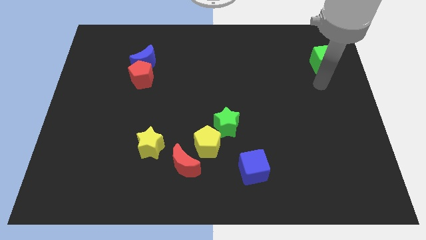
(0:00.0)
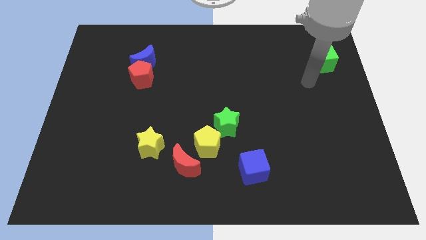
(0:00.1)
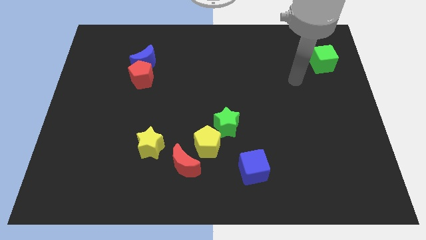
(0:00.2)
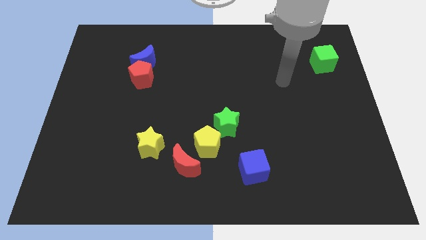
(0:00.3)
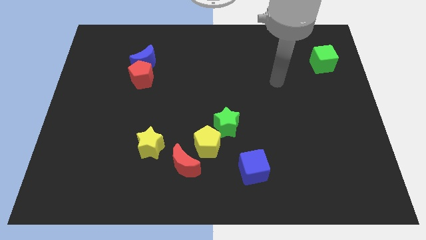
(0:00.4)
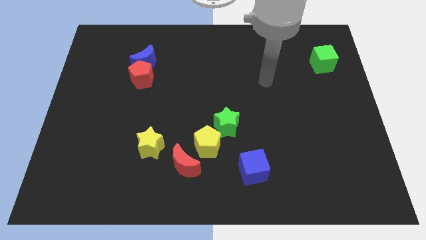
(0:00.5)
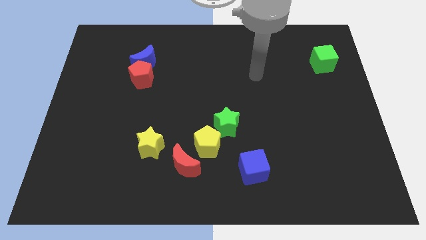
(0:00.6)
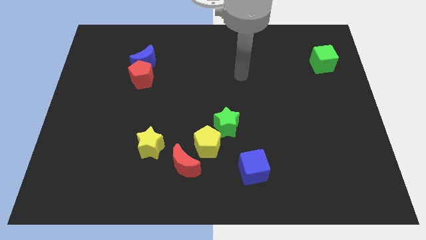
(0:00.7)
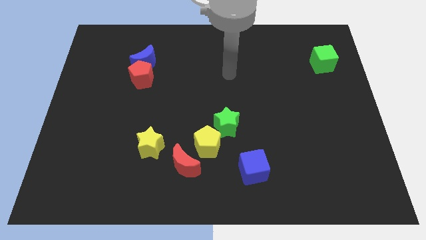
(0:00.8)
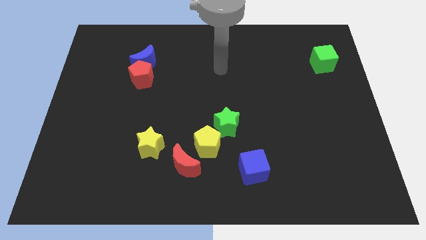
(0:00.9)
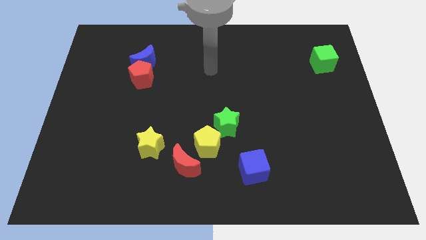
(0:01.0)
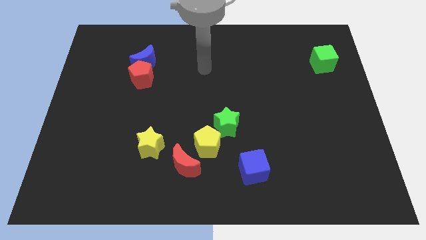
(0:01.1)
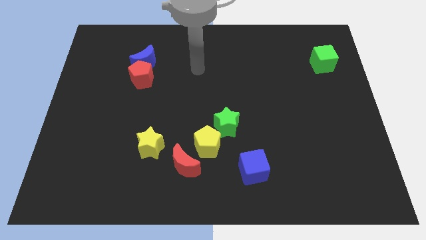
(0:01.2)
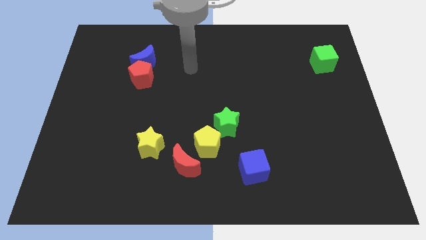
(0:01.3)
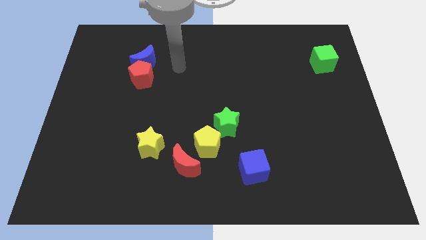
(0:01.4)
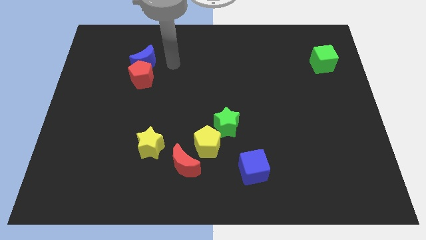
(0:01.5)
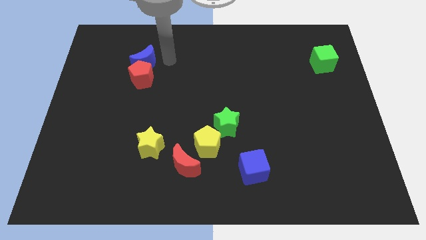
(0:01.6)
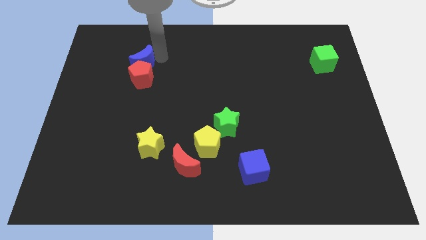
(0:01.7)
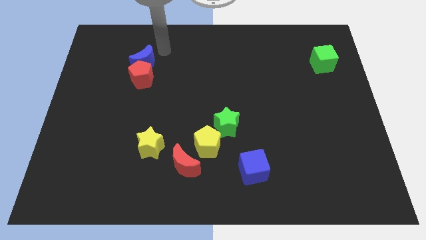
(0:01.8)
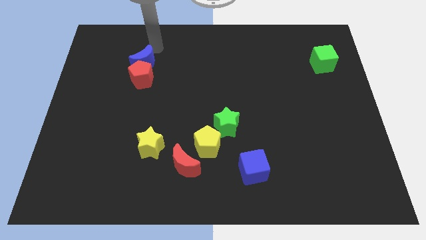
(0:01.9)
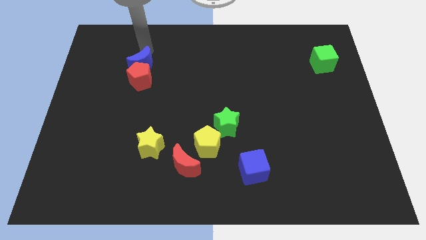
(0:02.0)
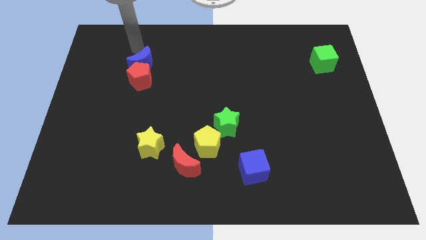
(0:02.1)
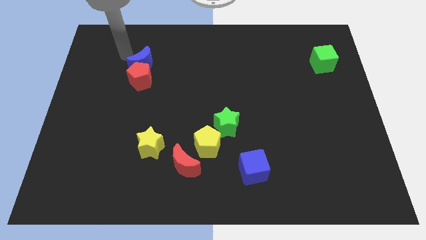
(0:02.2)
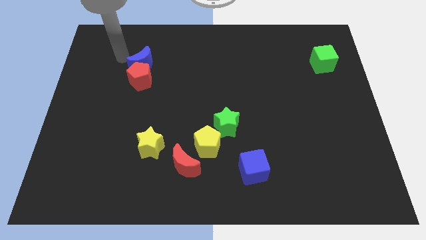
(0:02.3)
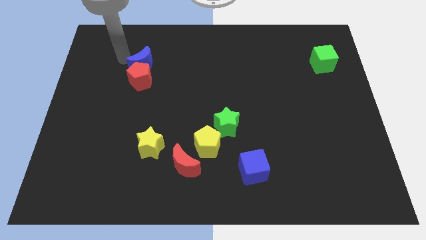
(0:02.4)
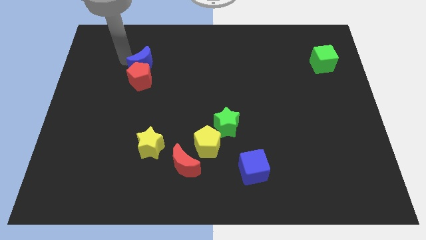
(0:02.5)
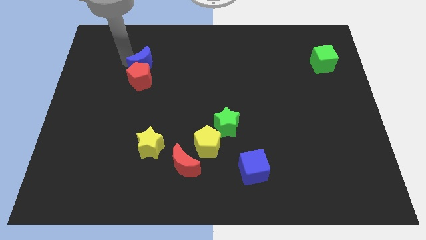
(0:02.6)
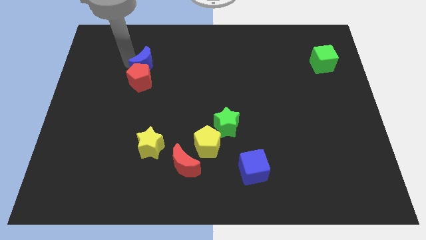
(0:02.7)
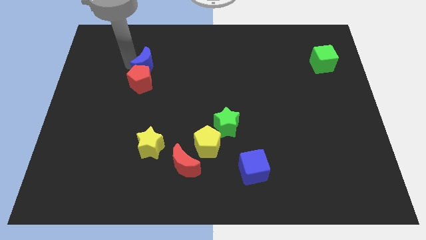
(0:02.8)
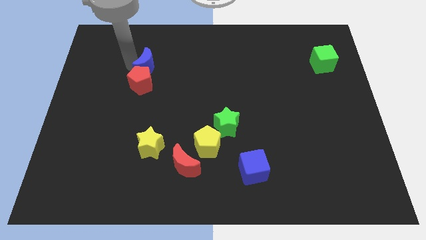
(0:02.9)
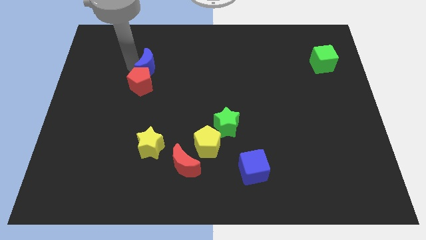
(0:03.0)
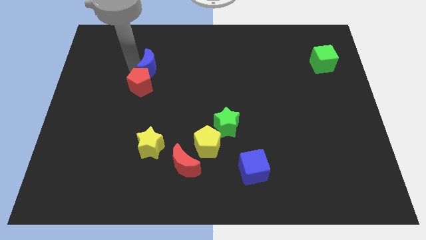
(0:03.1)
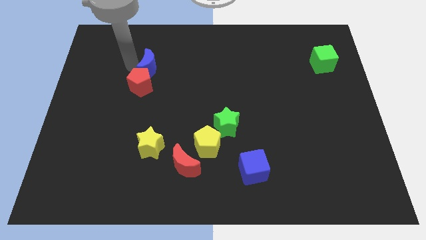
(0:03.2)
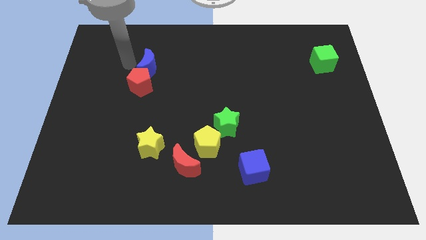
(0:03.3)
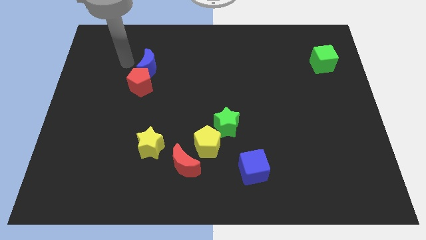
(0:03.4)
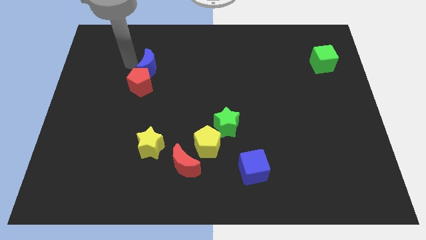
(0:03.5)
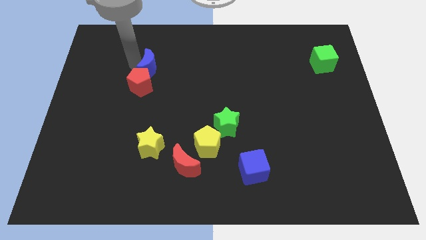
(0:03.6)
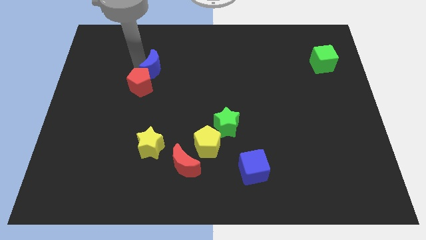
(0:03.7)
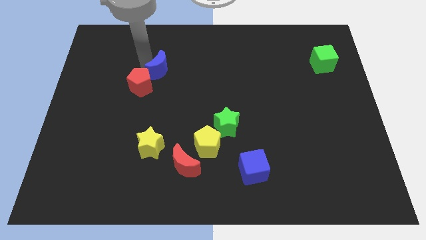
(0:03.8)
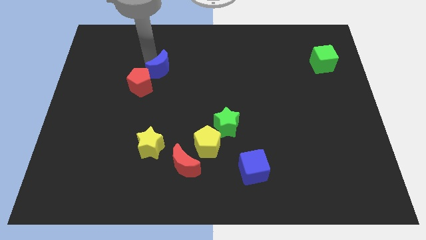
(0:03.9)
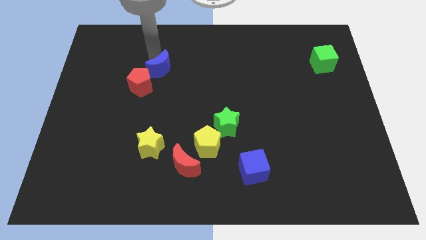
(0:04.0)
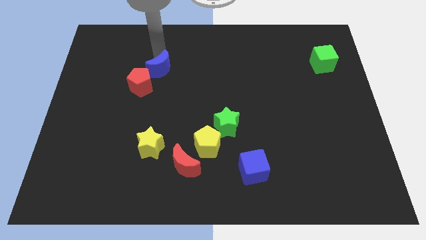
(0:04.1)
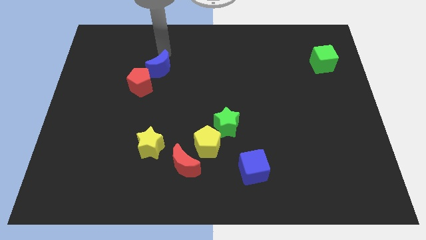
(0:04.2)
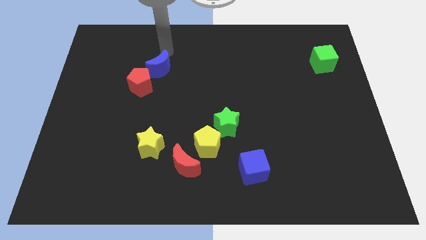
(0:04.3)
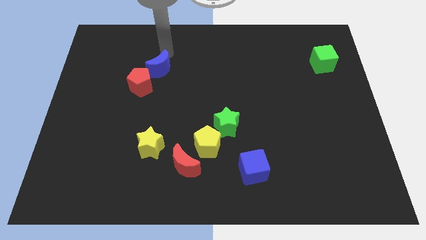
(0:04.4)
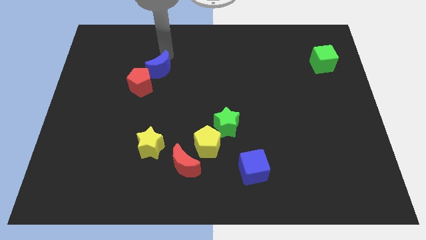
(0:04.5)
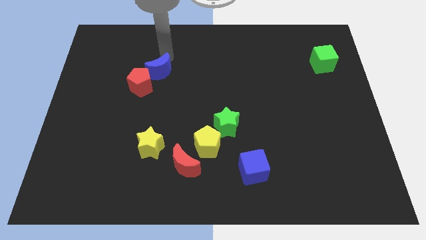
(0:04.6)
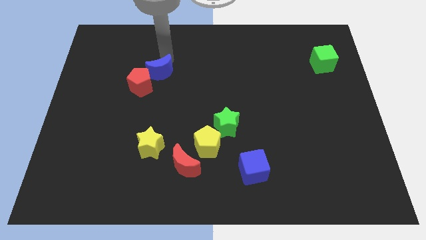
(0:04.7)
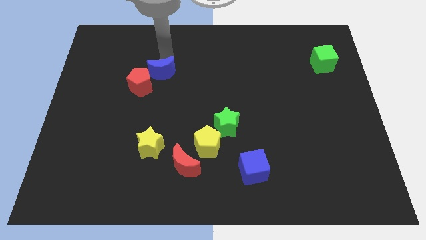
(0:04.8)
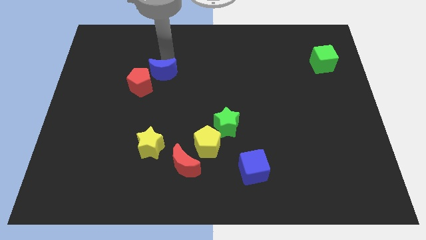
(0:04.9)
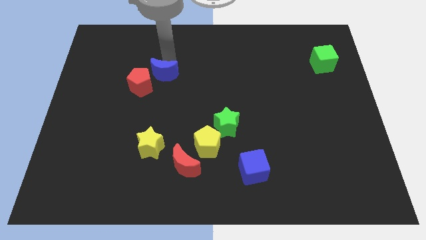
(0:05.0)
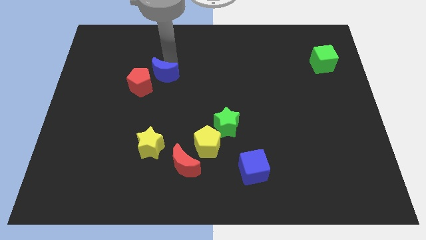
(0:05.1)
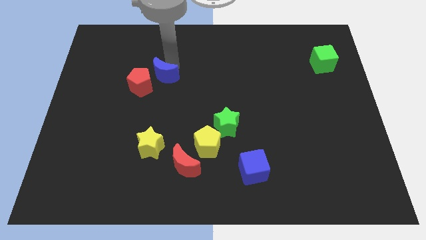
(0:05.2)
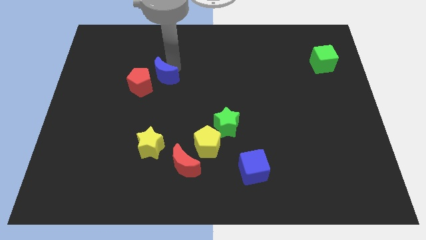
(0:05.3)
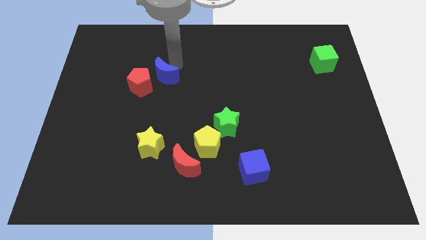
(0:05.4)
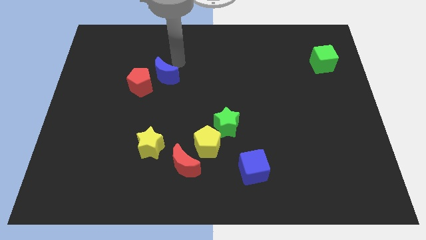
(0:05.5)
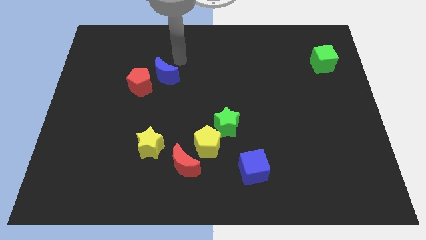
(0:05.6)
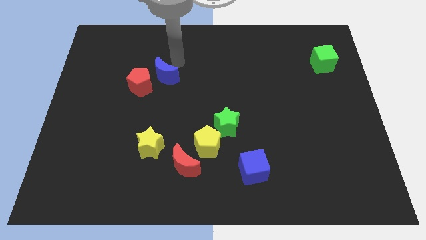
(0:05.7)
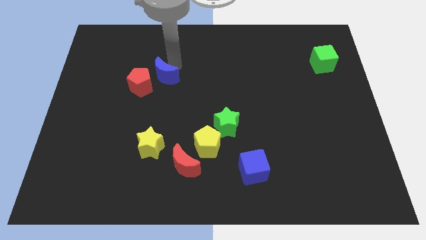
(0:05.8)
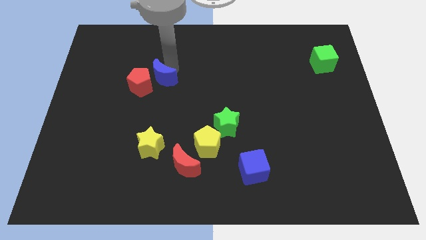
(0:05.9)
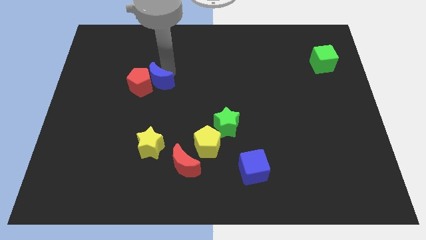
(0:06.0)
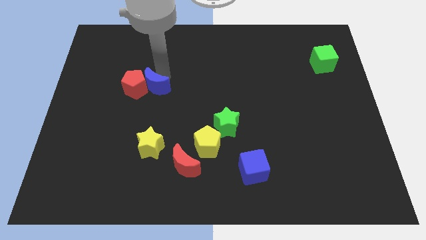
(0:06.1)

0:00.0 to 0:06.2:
move the blue moon somewhat down

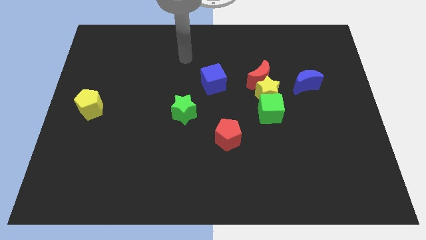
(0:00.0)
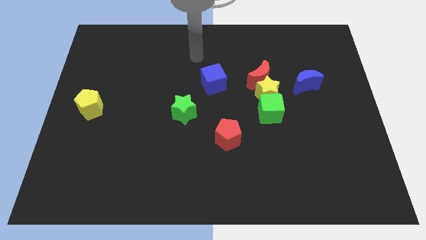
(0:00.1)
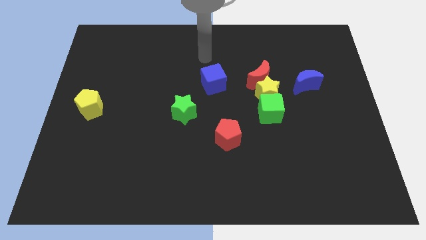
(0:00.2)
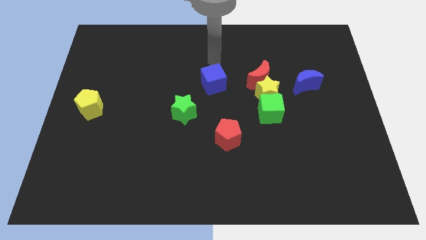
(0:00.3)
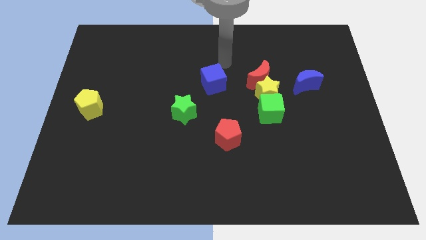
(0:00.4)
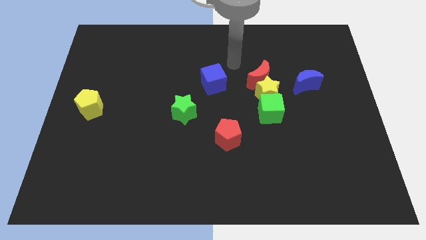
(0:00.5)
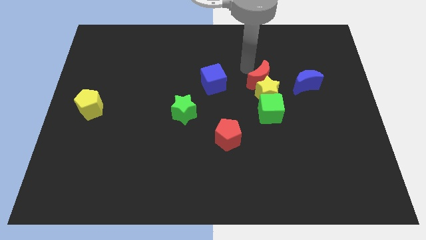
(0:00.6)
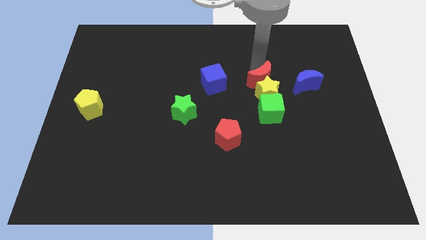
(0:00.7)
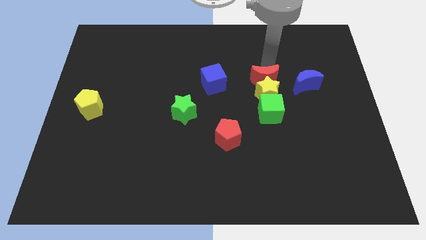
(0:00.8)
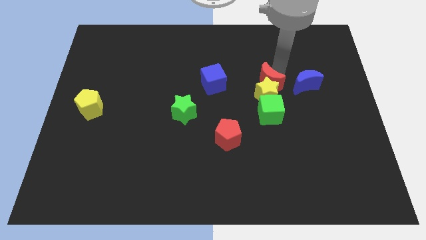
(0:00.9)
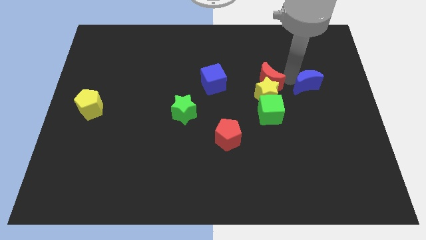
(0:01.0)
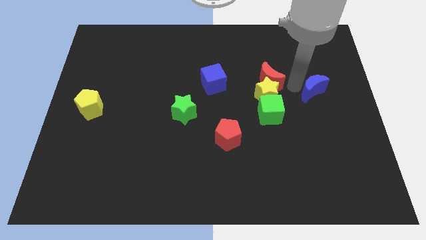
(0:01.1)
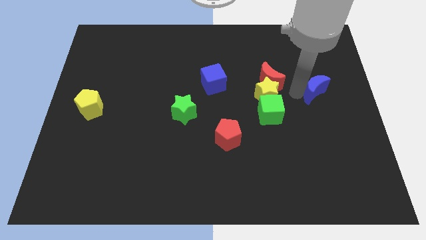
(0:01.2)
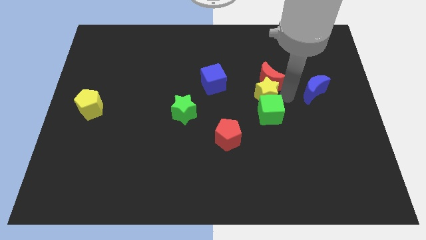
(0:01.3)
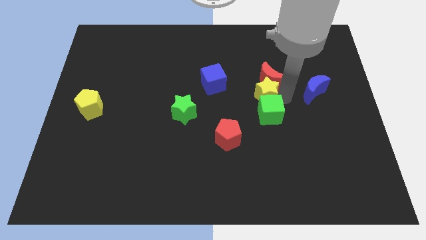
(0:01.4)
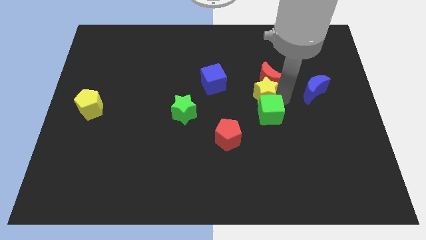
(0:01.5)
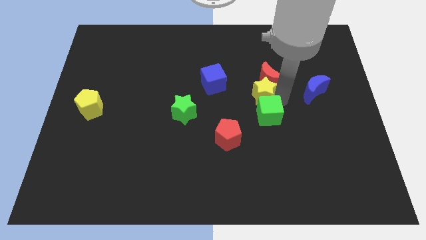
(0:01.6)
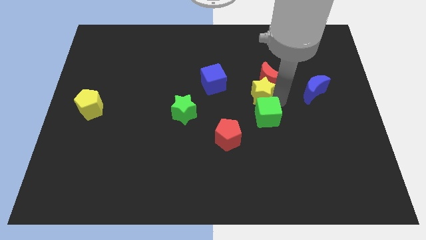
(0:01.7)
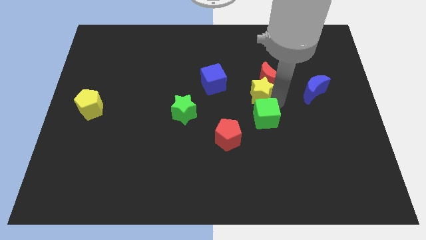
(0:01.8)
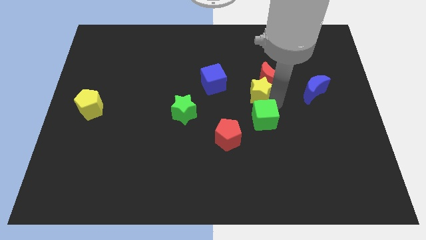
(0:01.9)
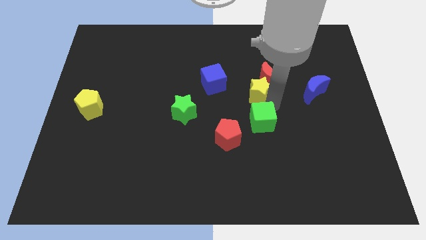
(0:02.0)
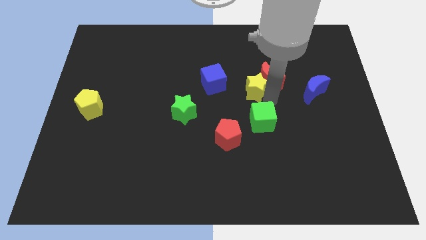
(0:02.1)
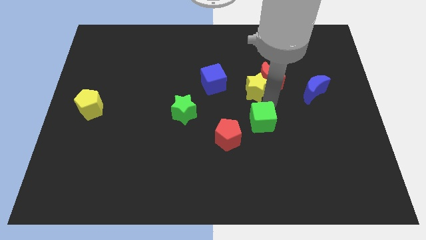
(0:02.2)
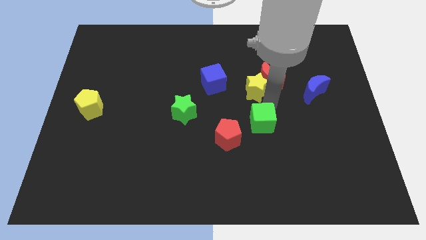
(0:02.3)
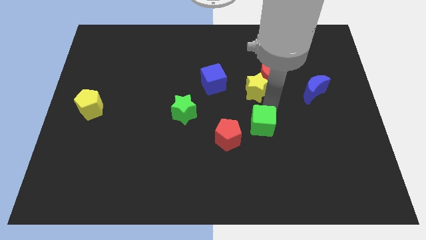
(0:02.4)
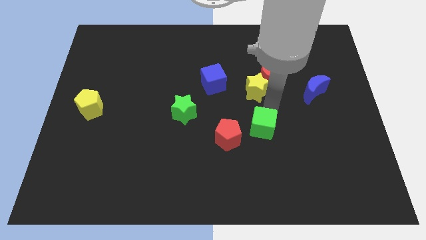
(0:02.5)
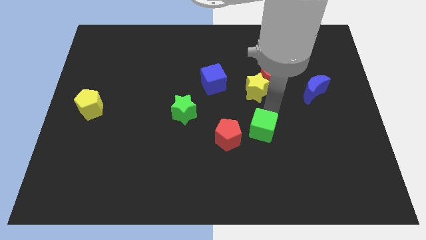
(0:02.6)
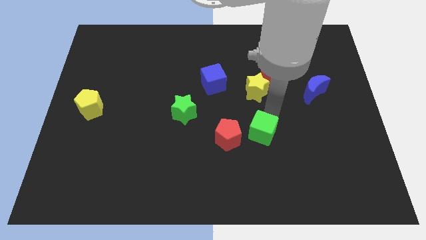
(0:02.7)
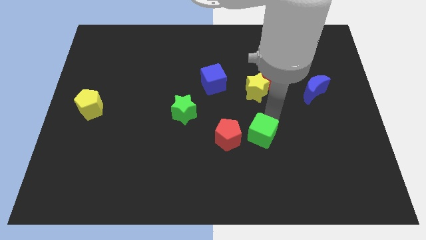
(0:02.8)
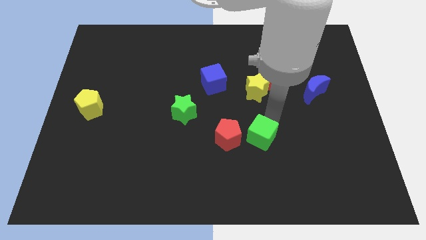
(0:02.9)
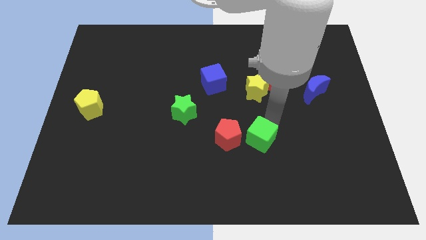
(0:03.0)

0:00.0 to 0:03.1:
slide the green cube diagonally downwards and to the left a little
